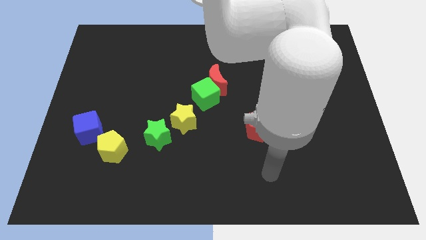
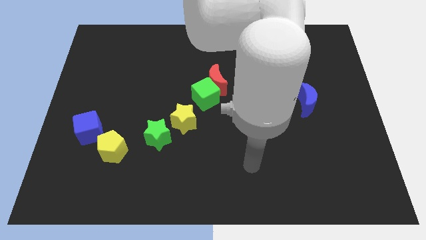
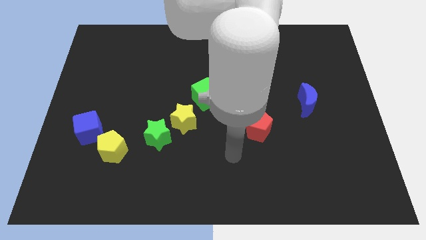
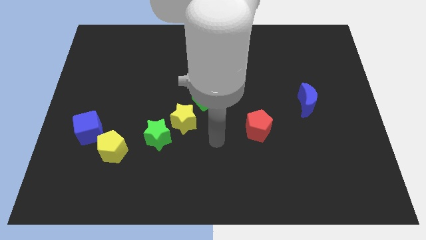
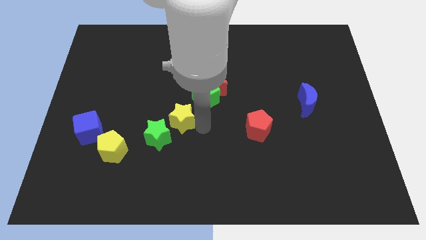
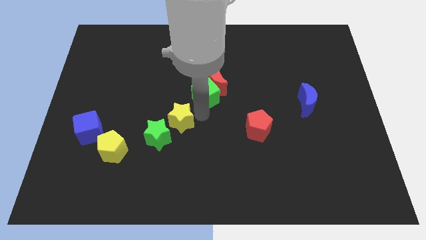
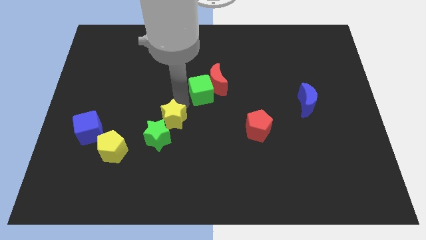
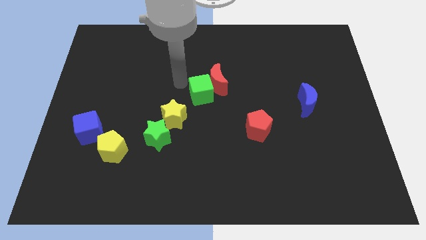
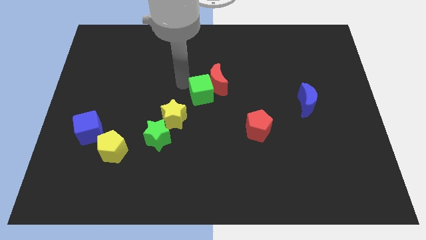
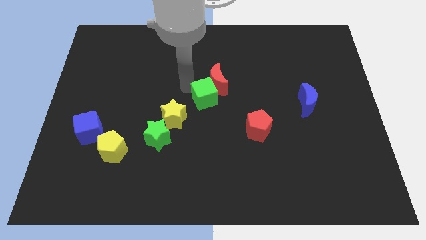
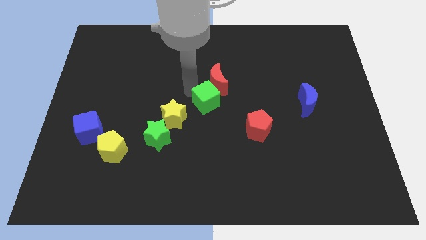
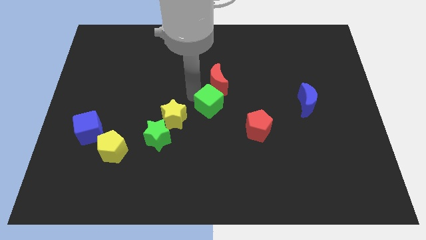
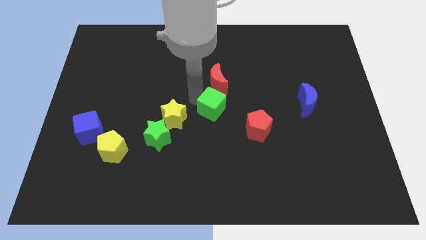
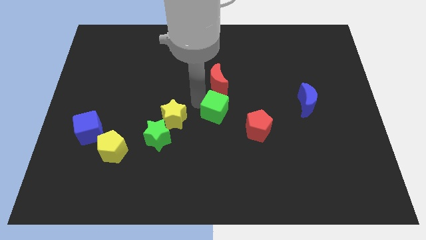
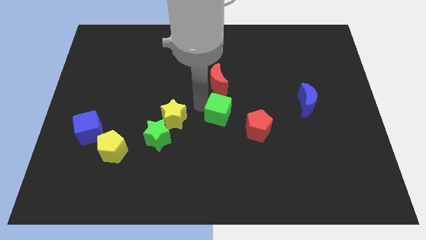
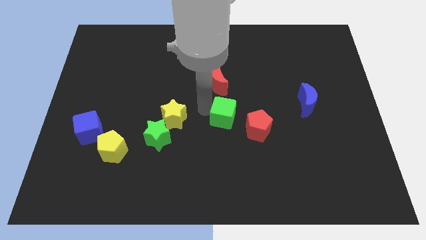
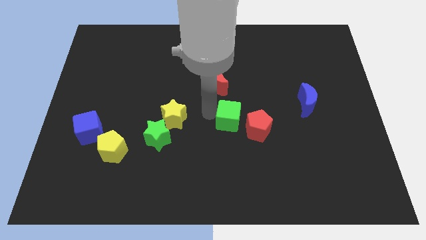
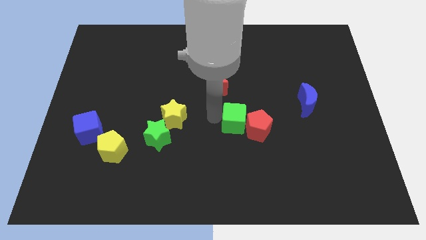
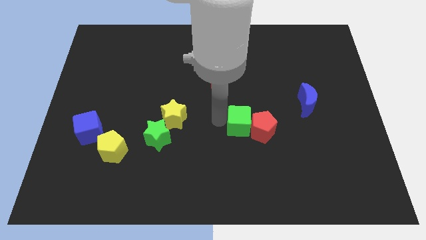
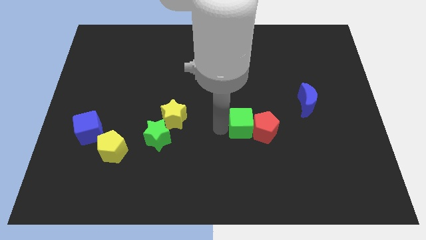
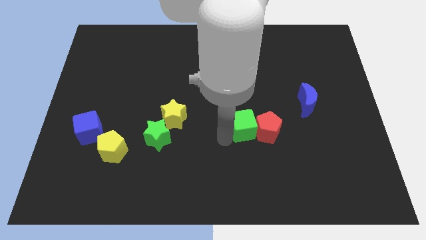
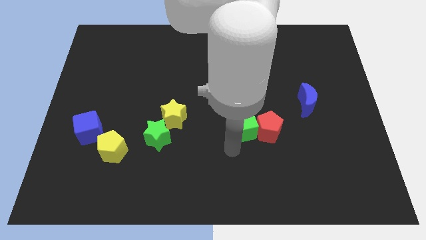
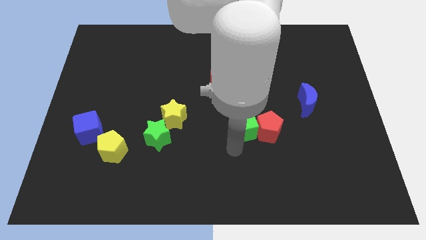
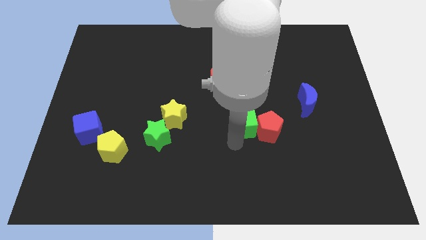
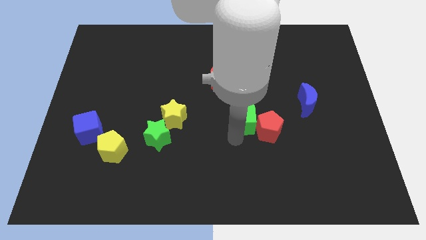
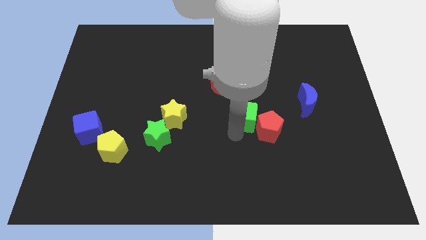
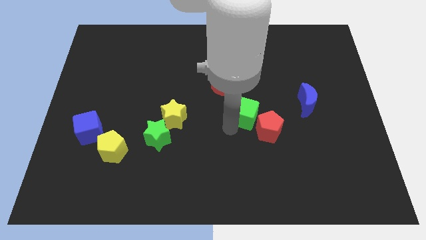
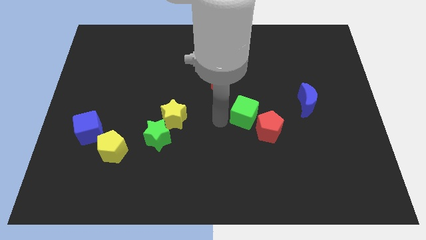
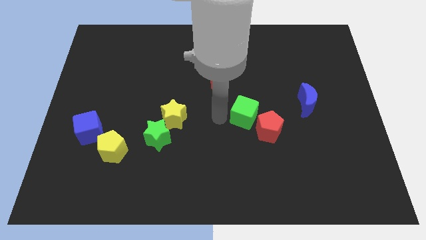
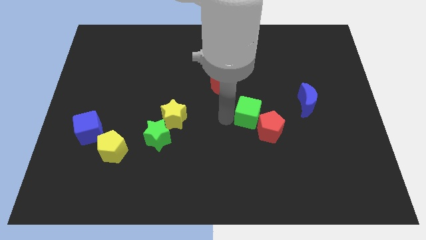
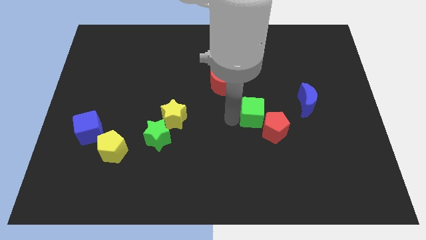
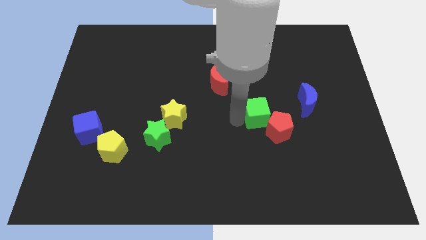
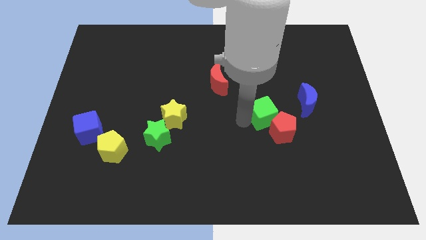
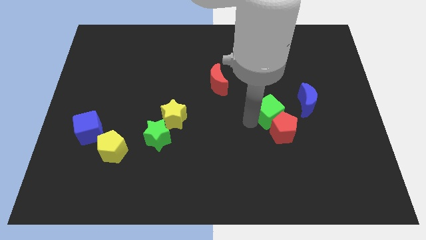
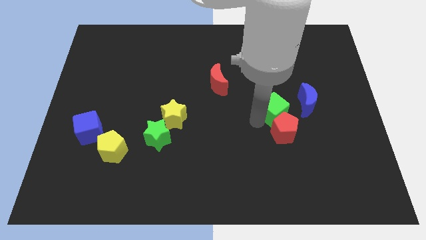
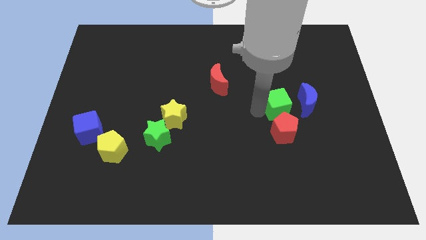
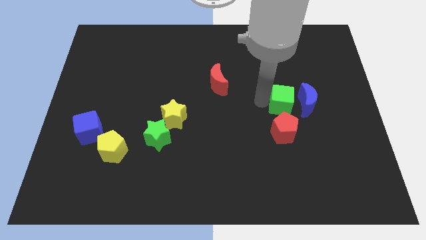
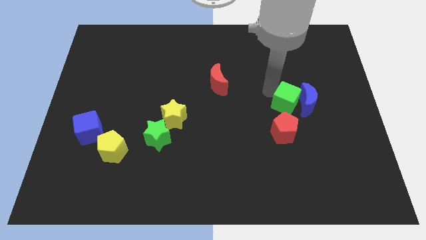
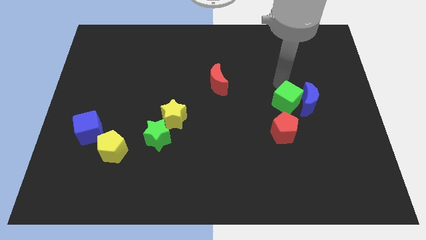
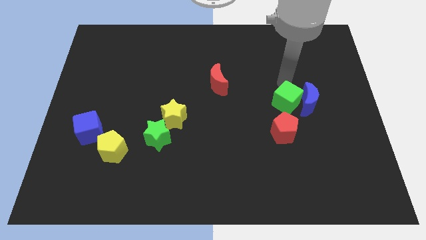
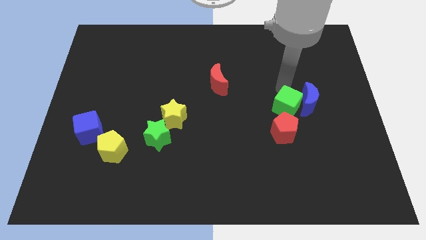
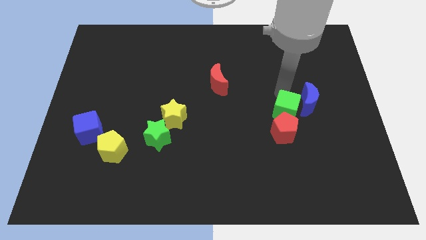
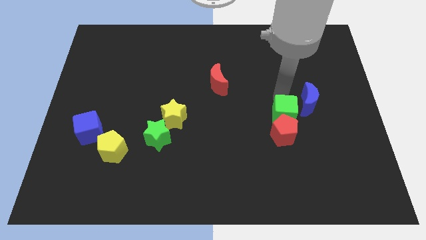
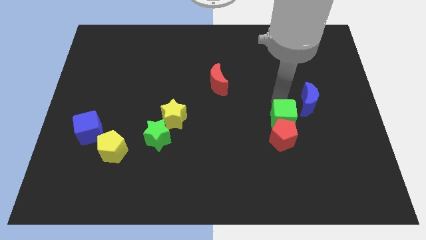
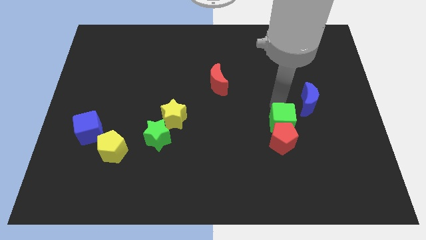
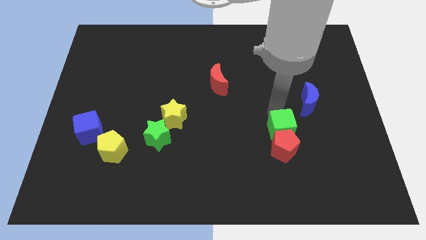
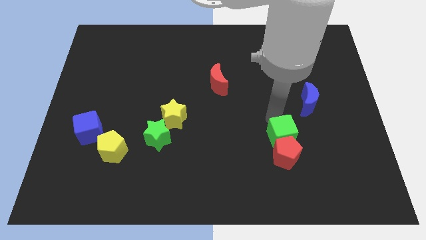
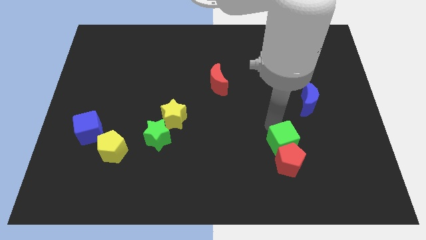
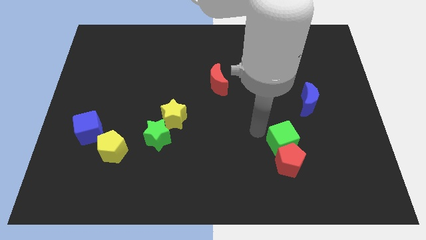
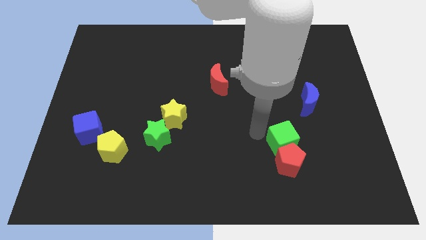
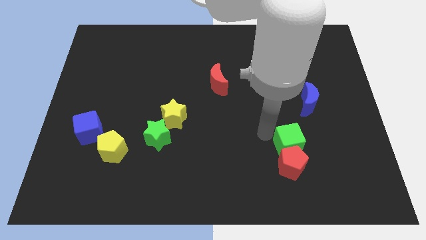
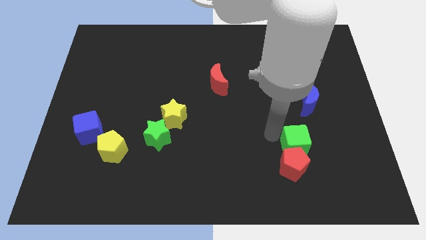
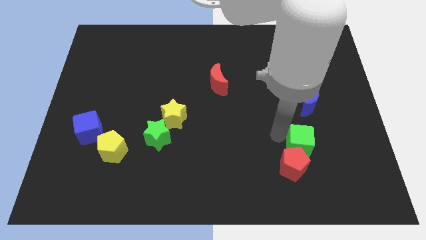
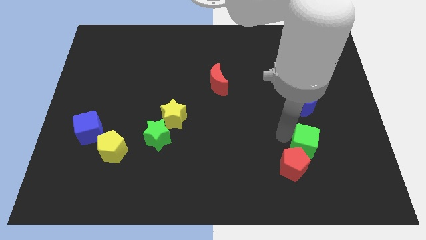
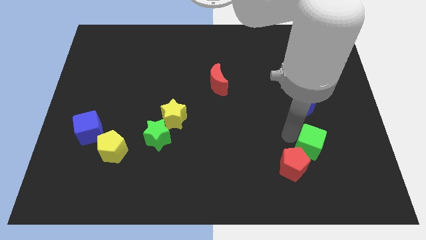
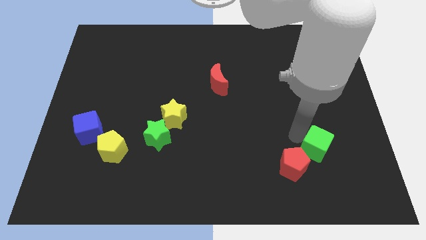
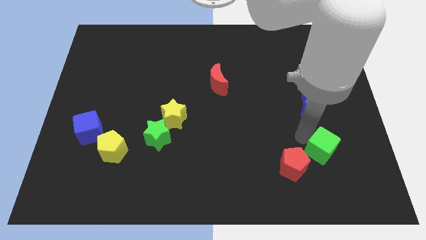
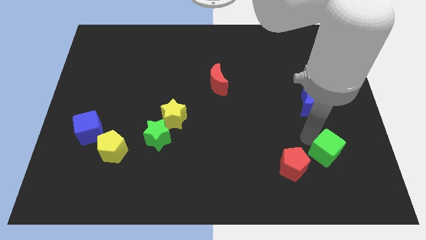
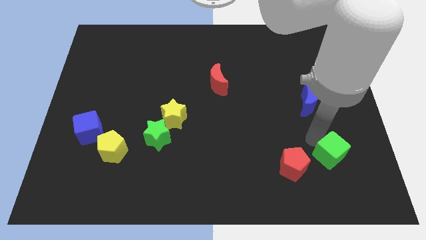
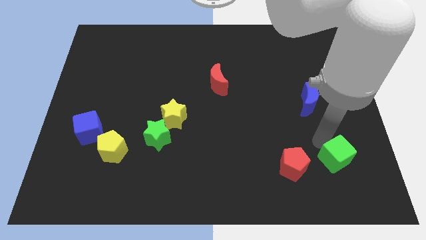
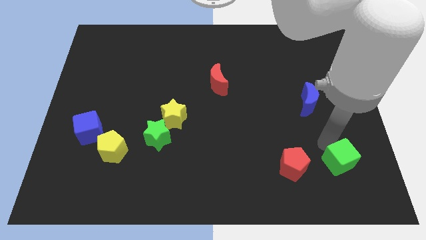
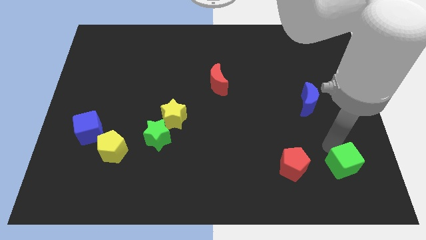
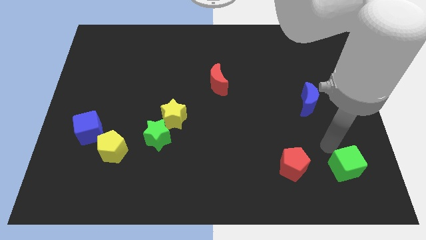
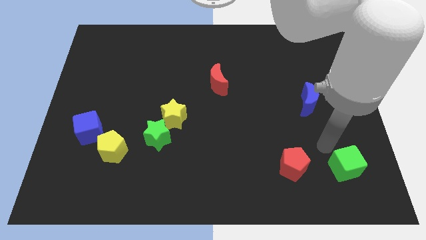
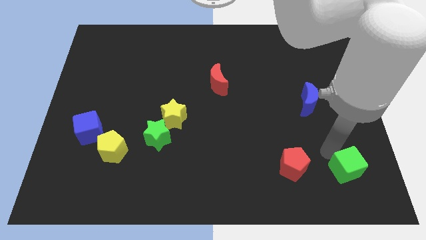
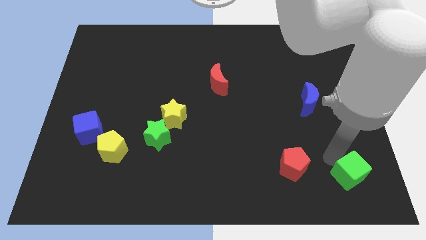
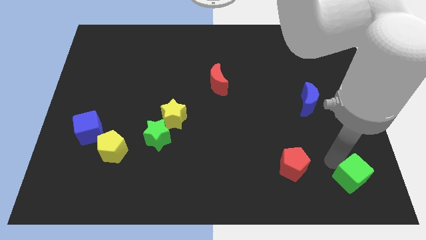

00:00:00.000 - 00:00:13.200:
push the green cube to the lower right corner
